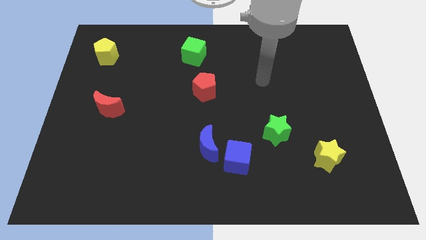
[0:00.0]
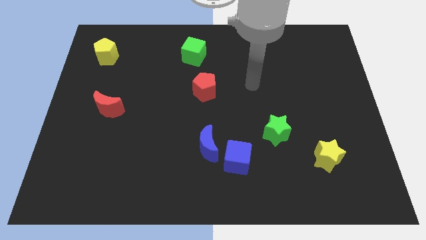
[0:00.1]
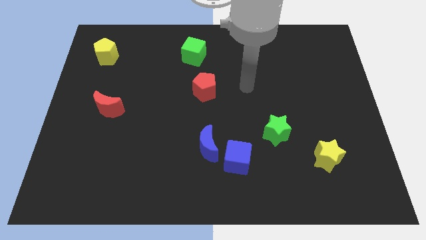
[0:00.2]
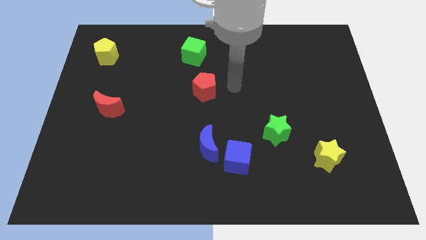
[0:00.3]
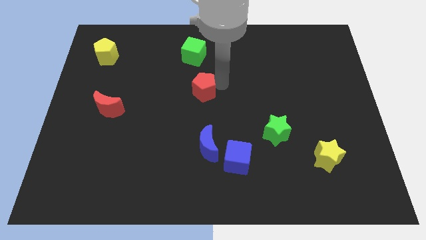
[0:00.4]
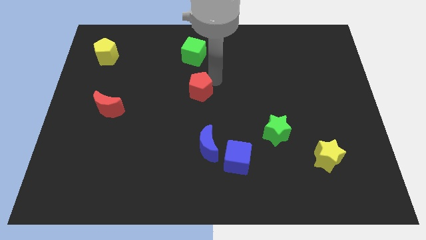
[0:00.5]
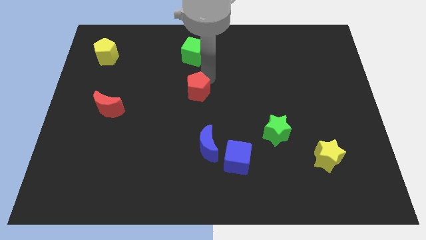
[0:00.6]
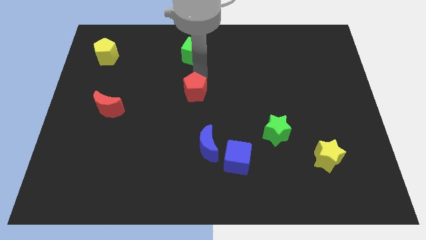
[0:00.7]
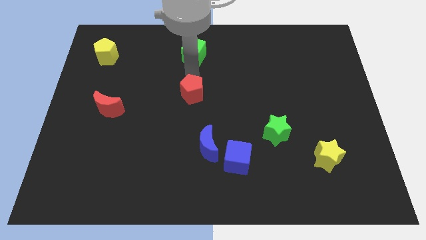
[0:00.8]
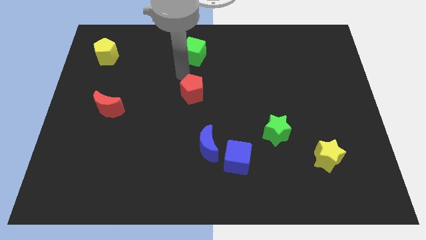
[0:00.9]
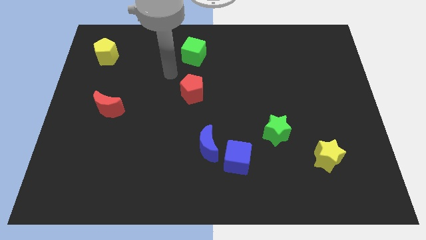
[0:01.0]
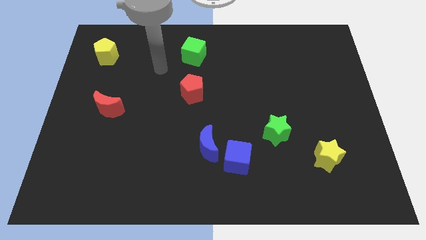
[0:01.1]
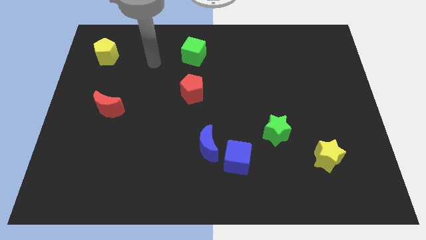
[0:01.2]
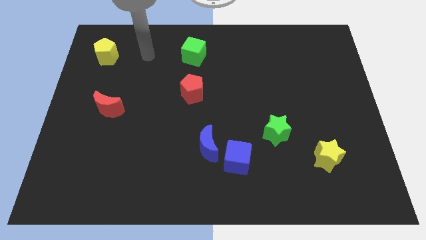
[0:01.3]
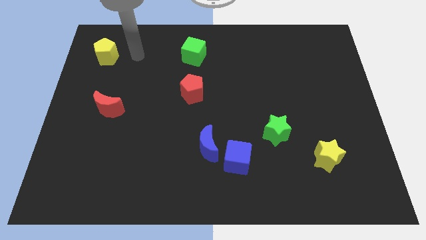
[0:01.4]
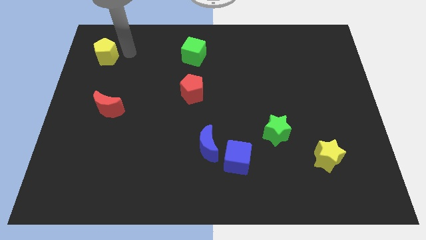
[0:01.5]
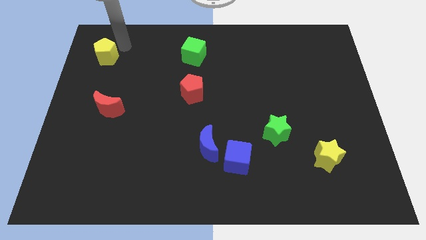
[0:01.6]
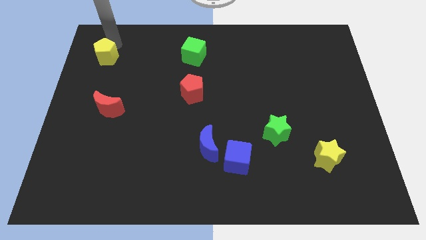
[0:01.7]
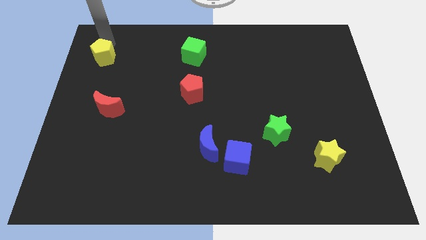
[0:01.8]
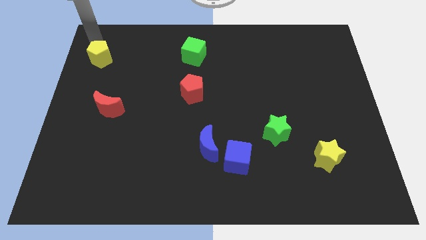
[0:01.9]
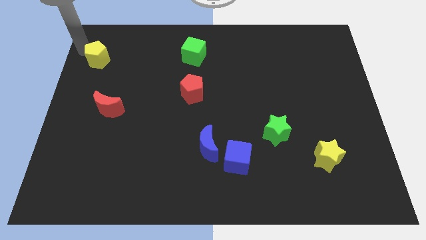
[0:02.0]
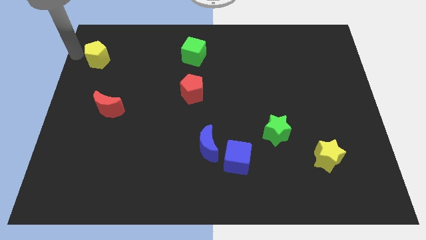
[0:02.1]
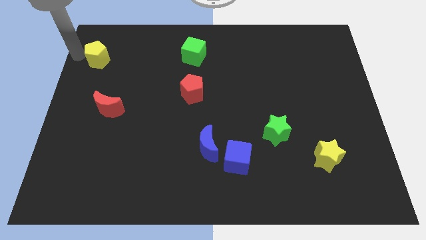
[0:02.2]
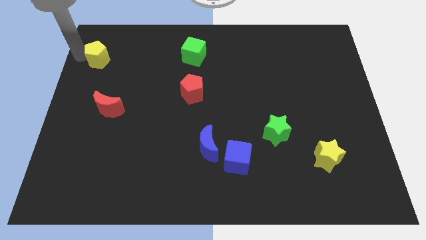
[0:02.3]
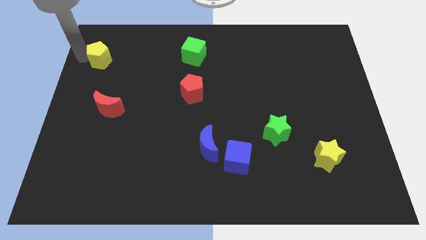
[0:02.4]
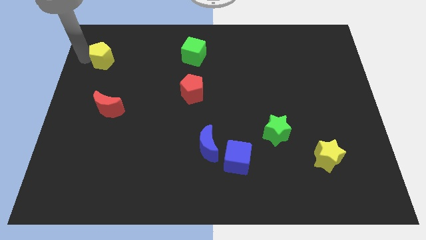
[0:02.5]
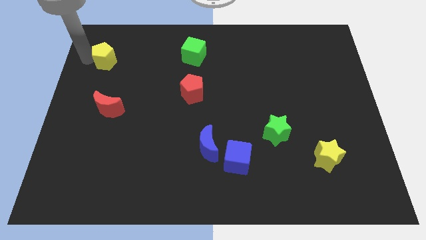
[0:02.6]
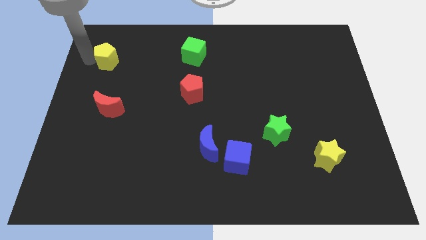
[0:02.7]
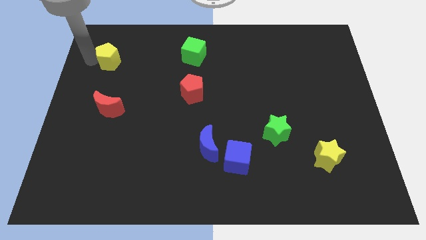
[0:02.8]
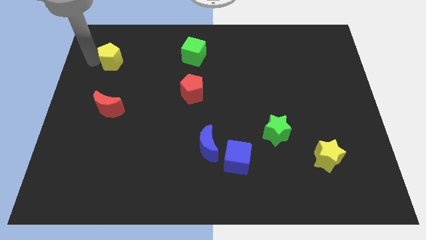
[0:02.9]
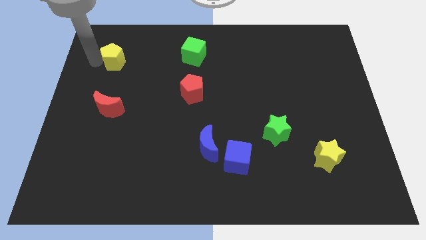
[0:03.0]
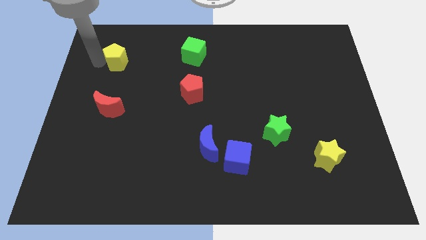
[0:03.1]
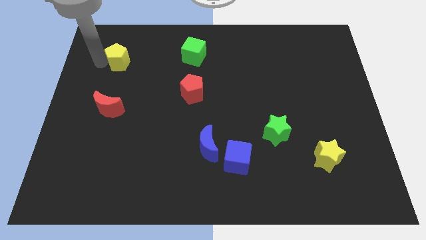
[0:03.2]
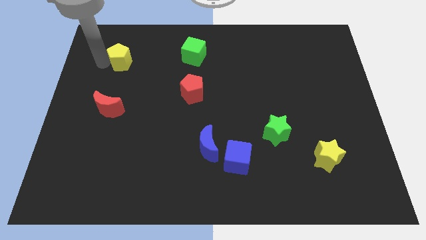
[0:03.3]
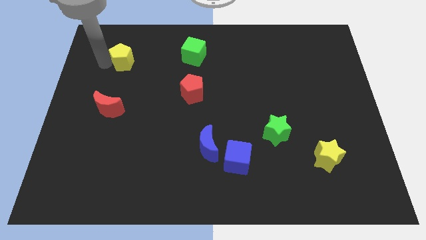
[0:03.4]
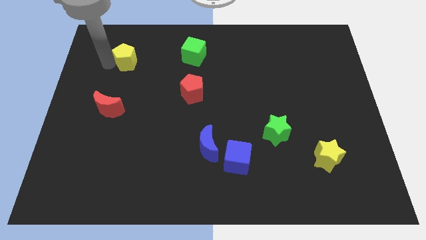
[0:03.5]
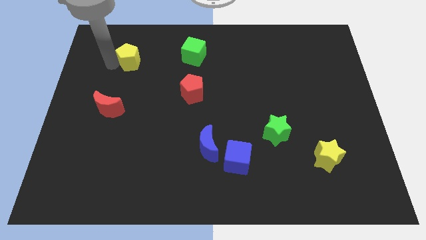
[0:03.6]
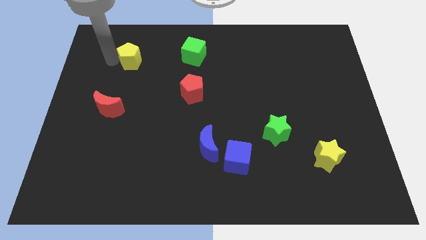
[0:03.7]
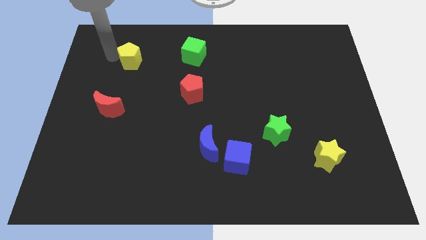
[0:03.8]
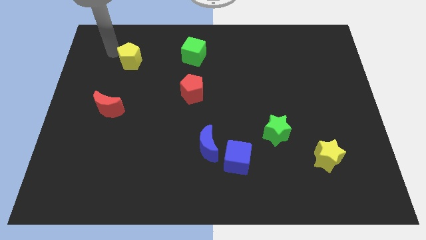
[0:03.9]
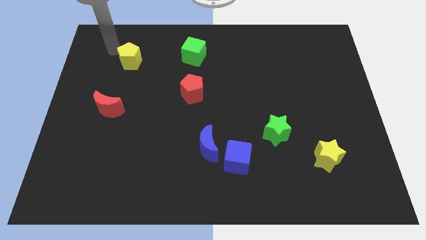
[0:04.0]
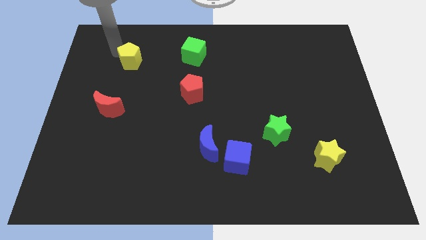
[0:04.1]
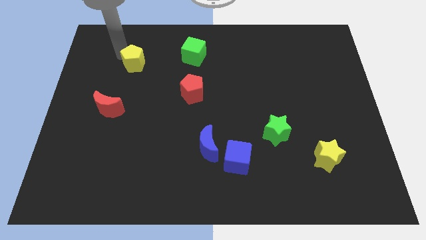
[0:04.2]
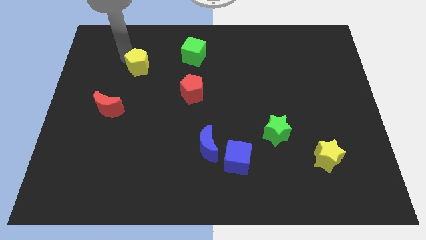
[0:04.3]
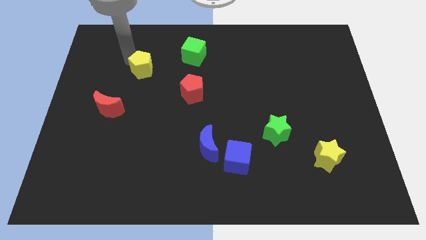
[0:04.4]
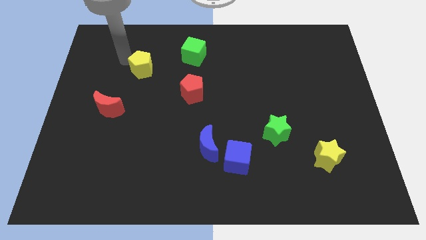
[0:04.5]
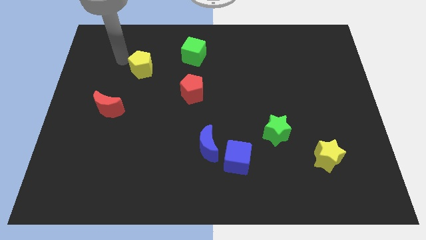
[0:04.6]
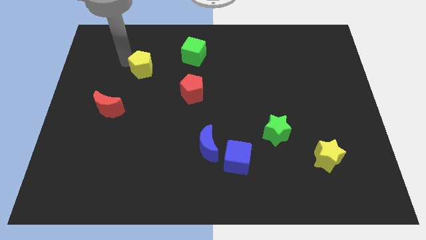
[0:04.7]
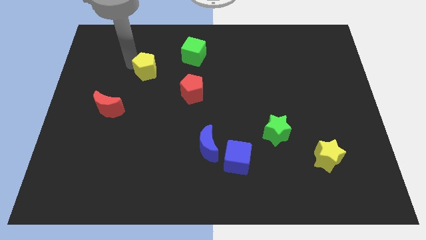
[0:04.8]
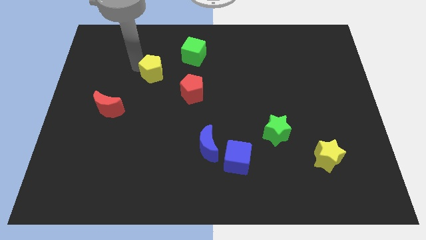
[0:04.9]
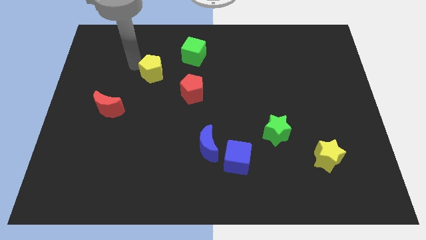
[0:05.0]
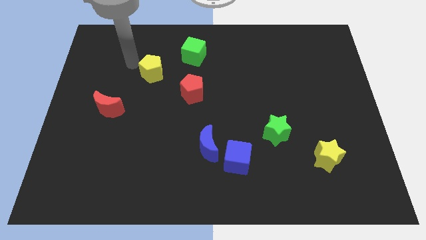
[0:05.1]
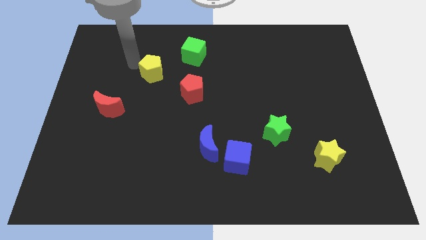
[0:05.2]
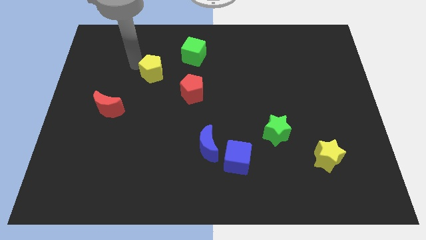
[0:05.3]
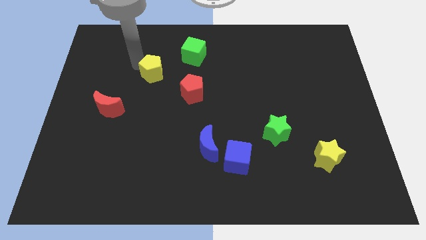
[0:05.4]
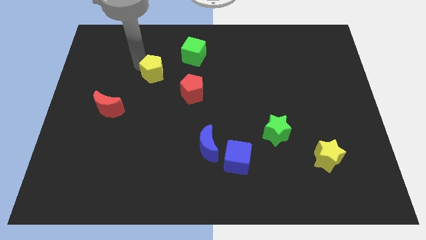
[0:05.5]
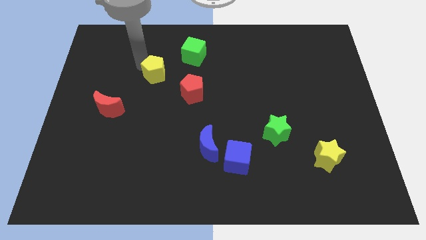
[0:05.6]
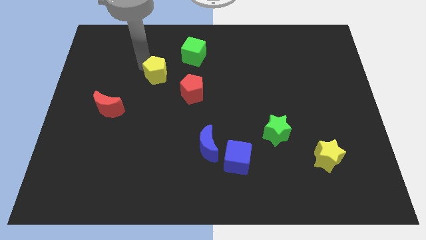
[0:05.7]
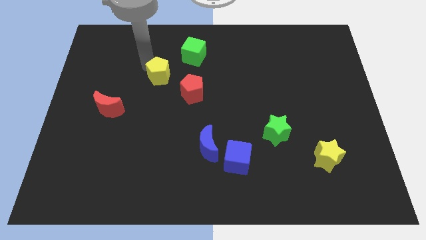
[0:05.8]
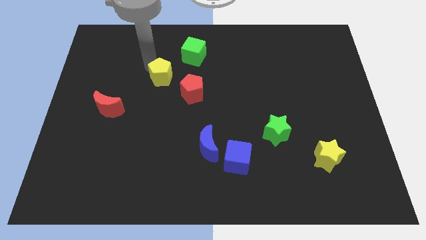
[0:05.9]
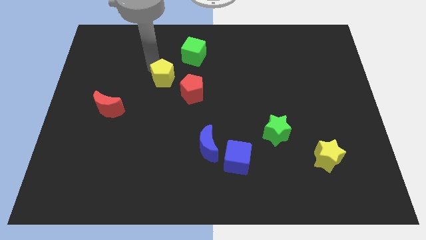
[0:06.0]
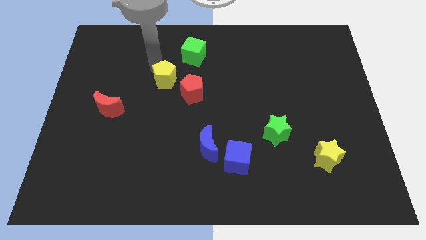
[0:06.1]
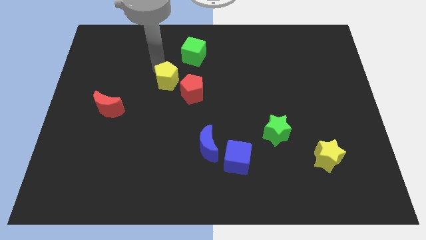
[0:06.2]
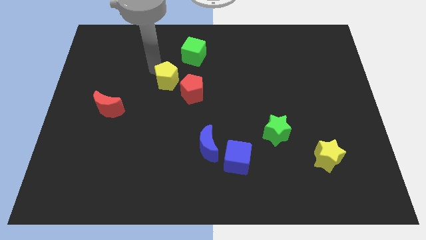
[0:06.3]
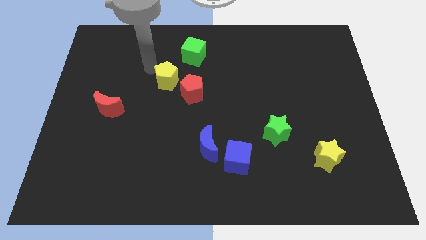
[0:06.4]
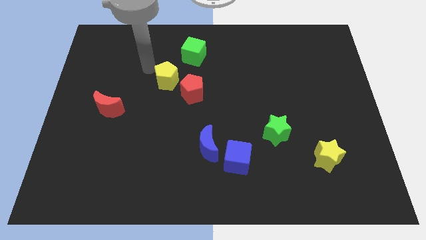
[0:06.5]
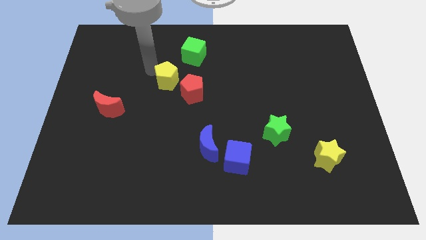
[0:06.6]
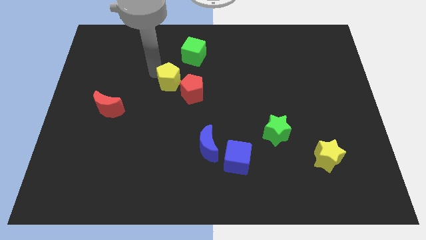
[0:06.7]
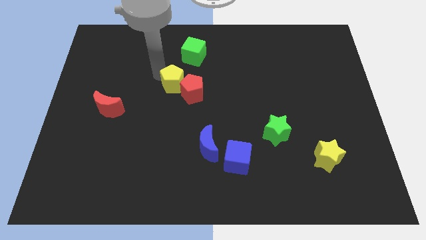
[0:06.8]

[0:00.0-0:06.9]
put the yellow pentagon close to the red pentagon

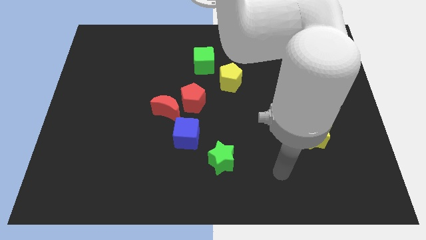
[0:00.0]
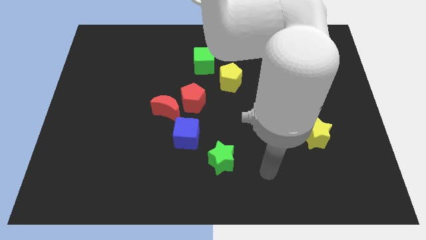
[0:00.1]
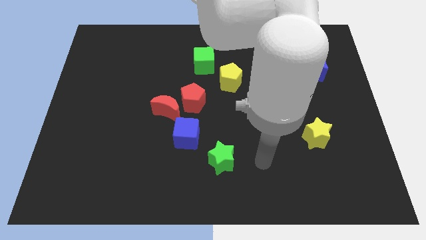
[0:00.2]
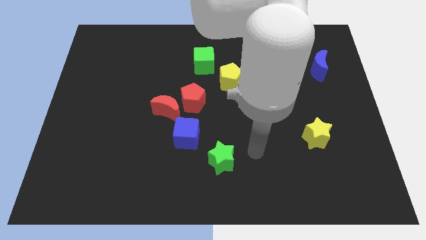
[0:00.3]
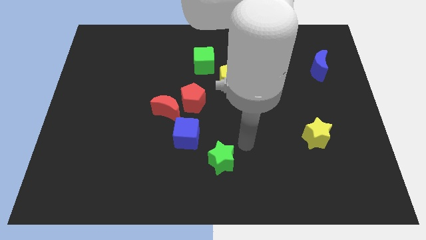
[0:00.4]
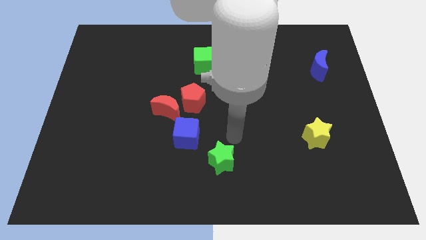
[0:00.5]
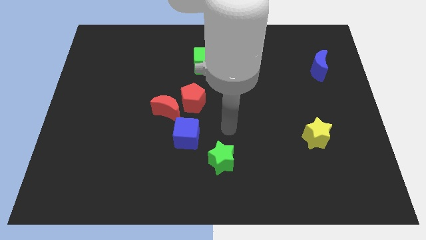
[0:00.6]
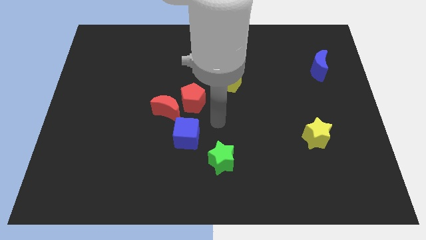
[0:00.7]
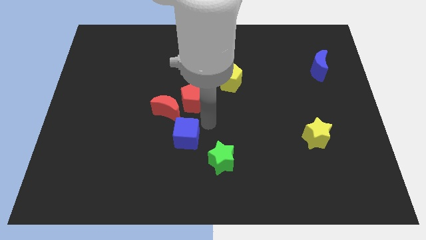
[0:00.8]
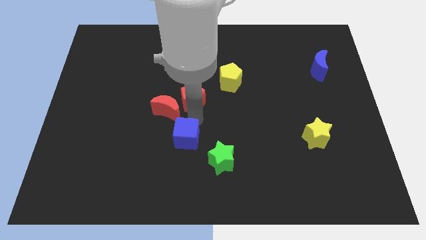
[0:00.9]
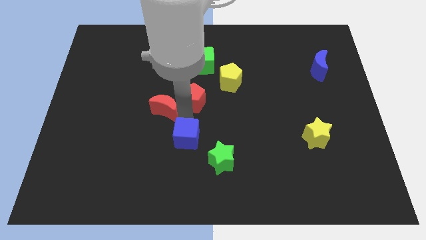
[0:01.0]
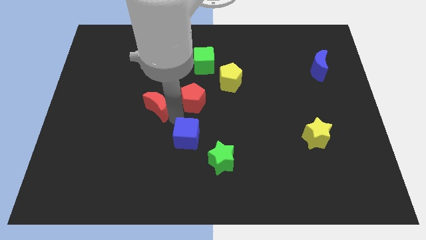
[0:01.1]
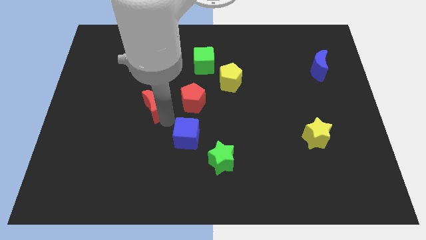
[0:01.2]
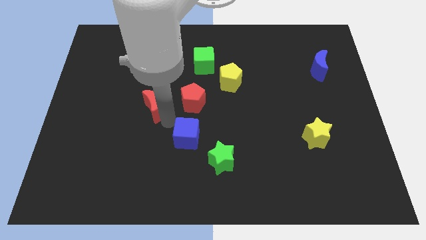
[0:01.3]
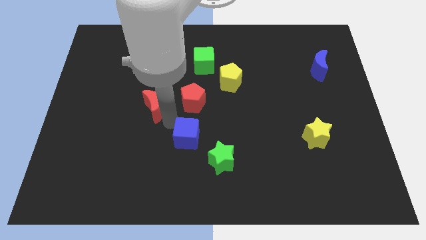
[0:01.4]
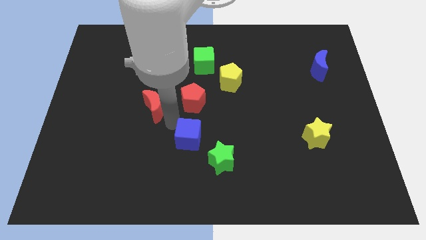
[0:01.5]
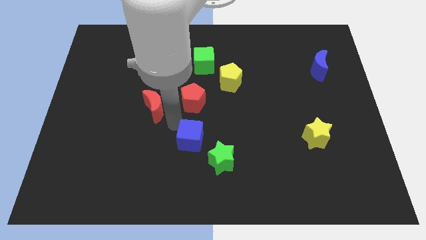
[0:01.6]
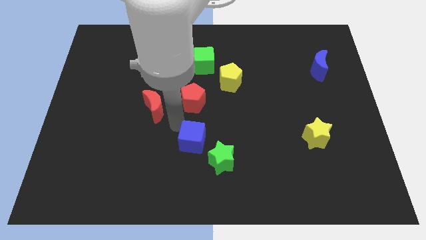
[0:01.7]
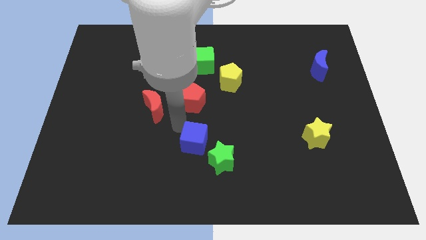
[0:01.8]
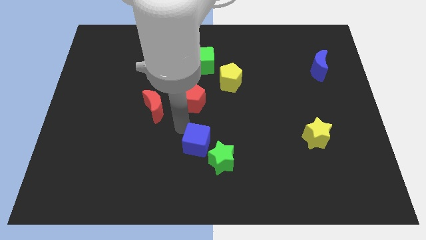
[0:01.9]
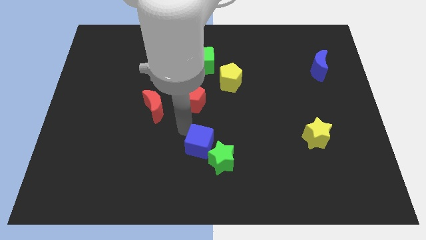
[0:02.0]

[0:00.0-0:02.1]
push the blue cube towards the green star
